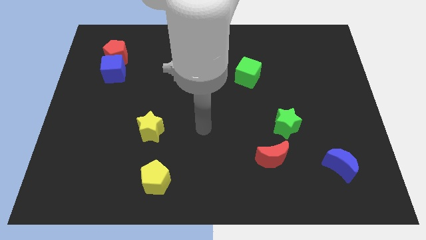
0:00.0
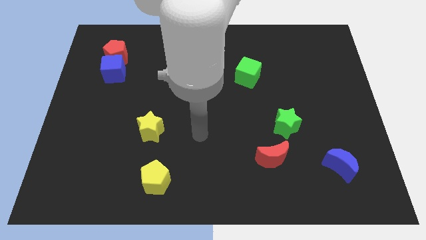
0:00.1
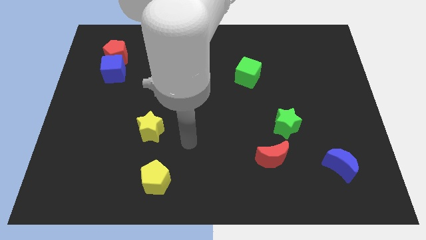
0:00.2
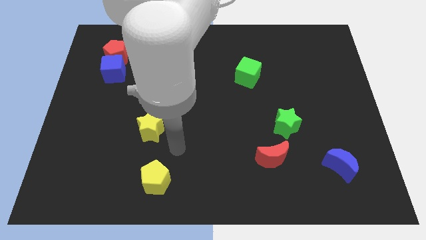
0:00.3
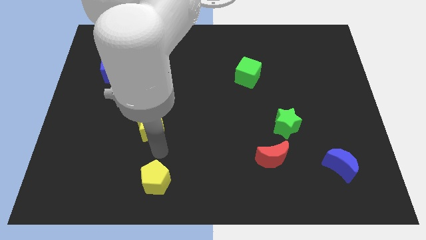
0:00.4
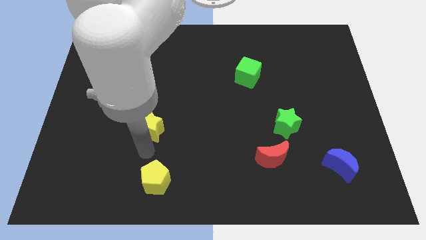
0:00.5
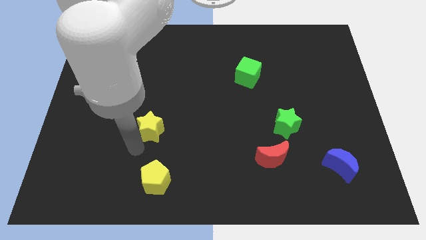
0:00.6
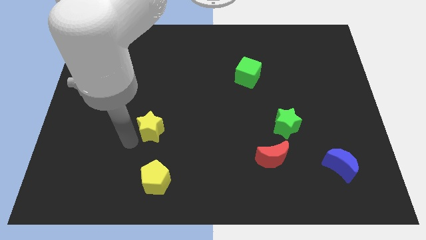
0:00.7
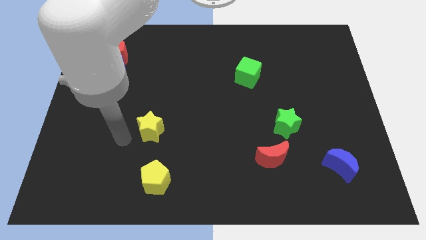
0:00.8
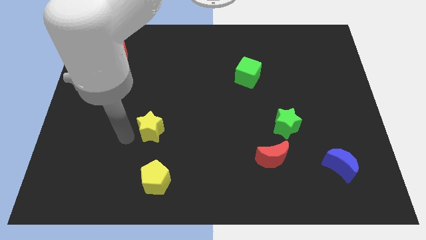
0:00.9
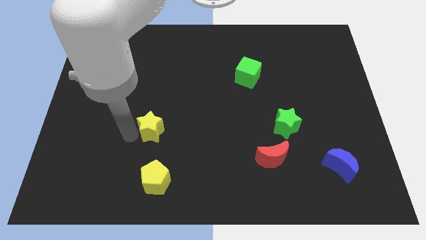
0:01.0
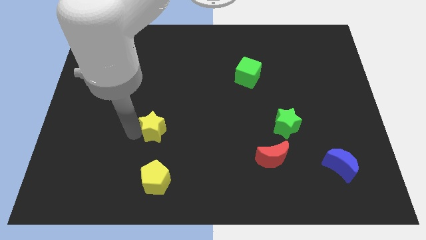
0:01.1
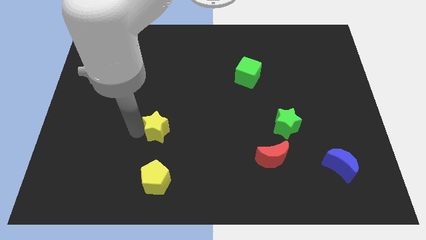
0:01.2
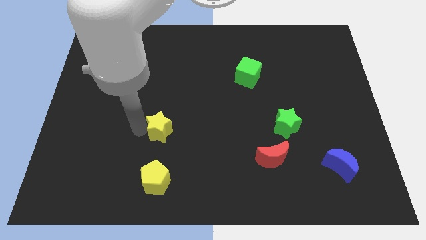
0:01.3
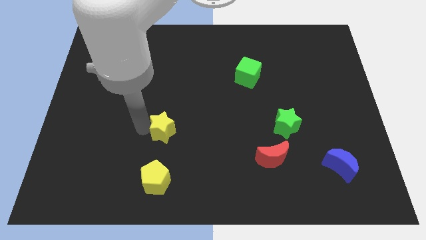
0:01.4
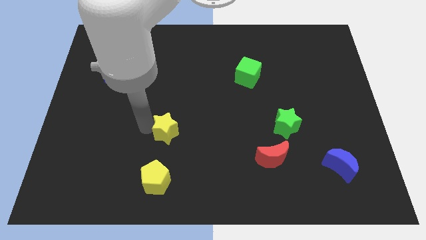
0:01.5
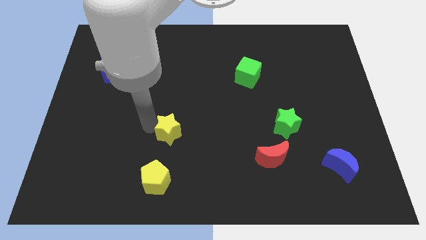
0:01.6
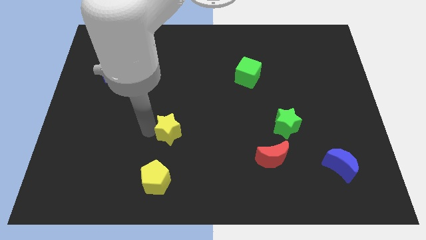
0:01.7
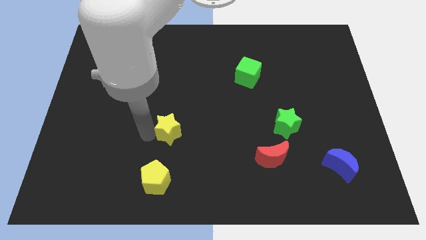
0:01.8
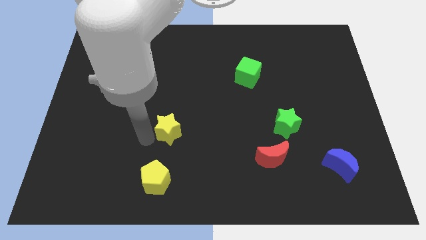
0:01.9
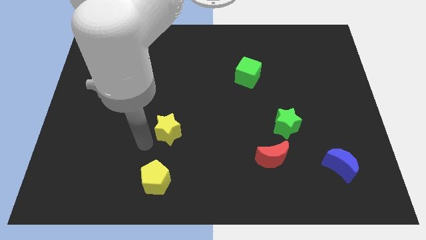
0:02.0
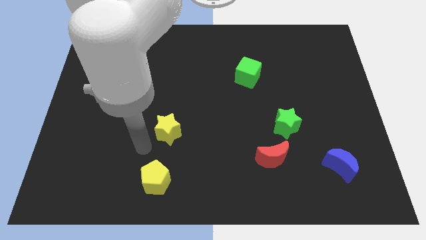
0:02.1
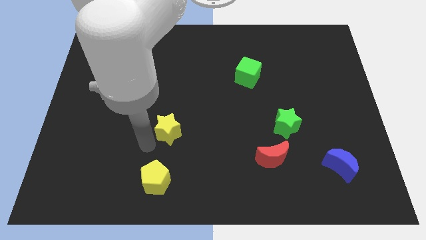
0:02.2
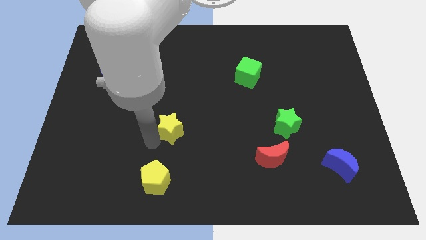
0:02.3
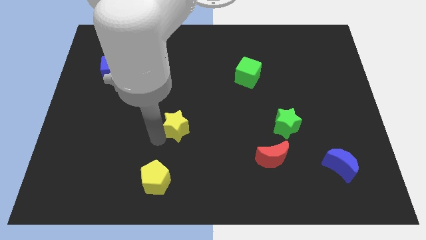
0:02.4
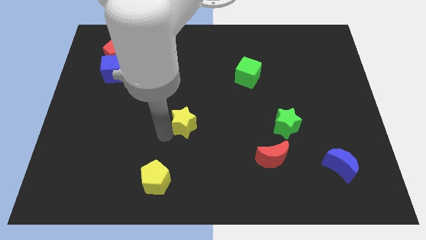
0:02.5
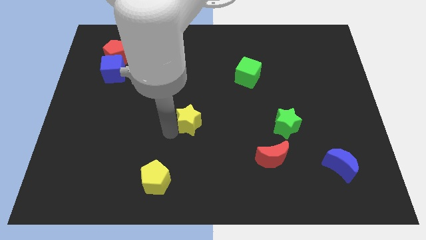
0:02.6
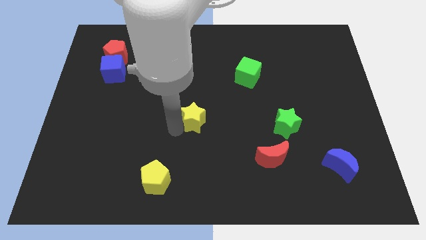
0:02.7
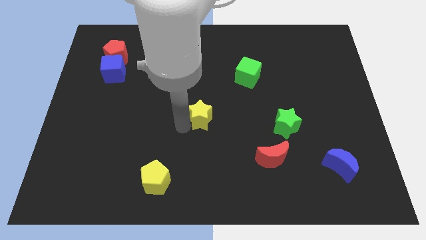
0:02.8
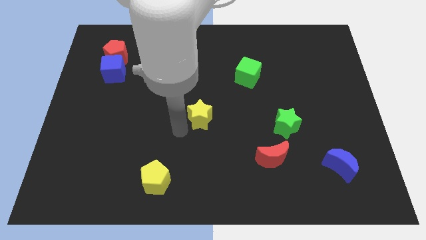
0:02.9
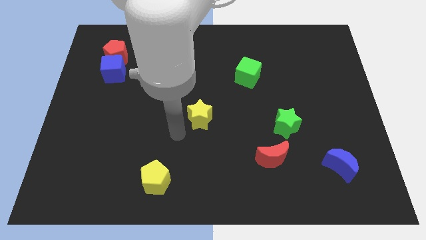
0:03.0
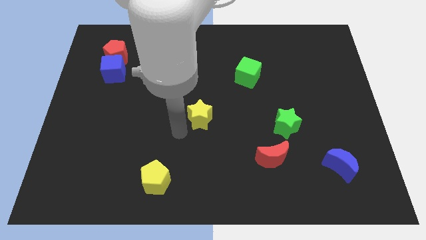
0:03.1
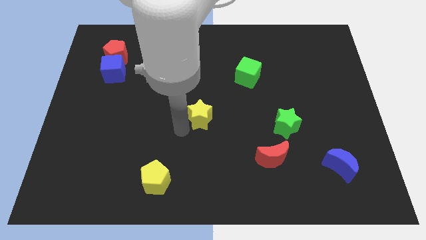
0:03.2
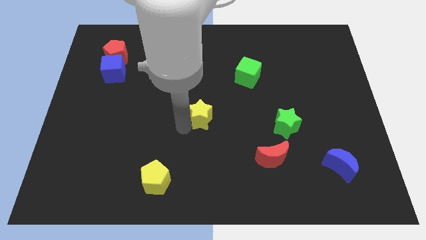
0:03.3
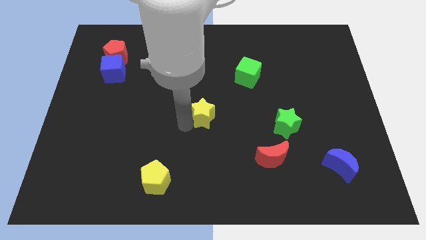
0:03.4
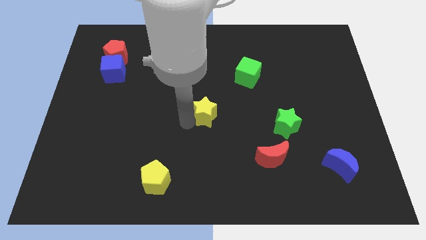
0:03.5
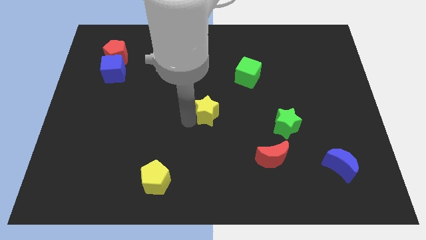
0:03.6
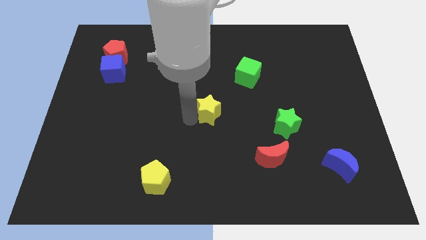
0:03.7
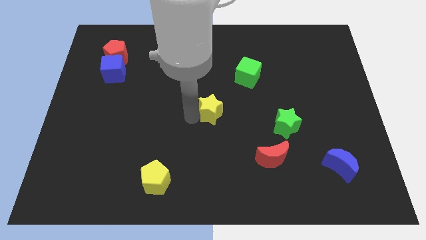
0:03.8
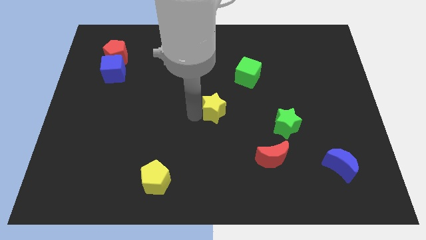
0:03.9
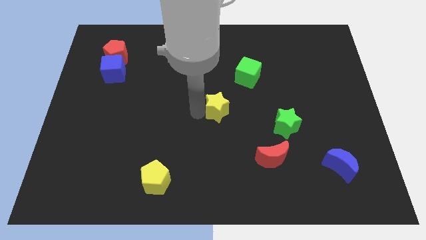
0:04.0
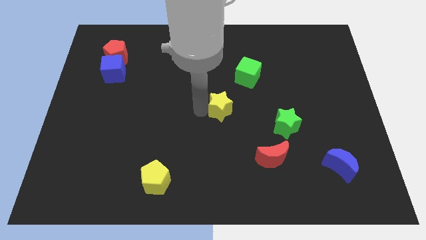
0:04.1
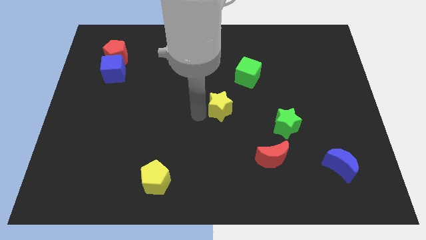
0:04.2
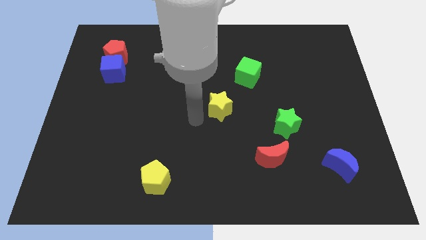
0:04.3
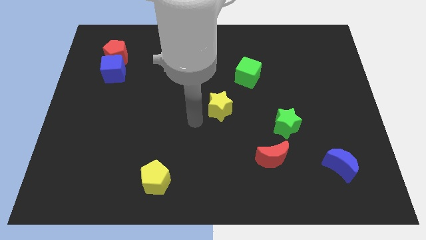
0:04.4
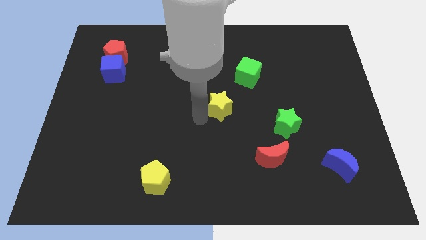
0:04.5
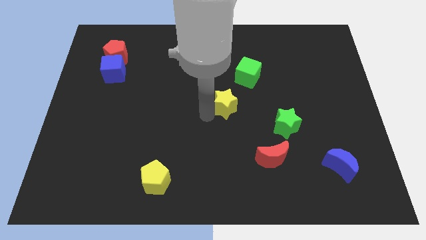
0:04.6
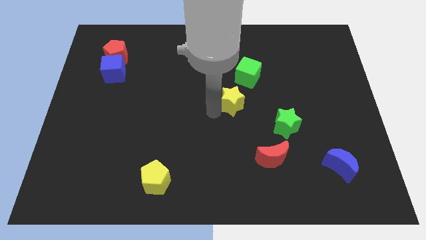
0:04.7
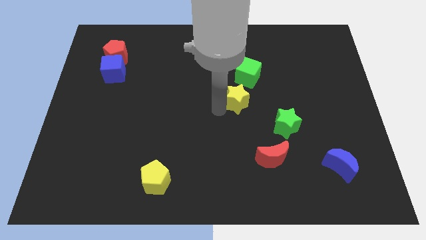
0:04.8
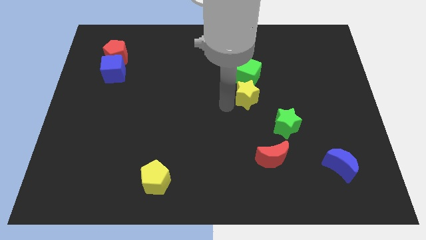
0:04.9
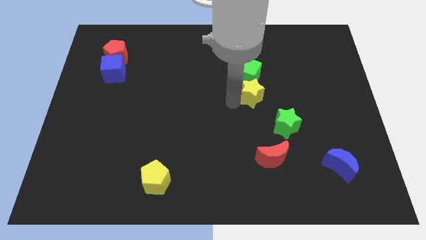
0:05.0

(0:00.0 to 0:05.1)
slide the yellow star to the bottom right of the green cube

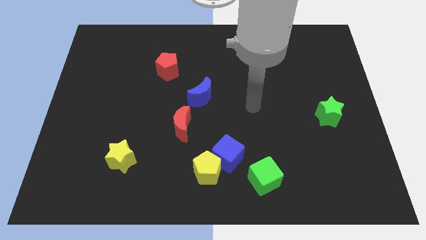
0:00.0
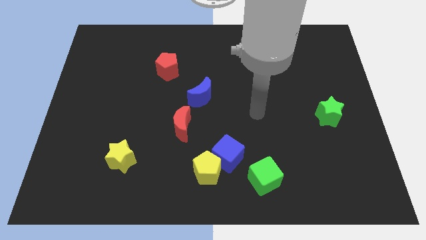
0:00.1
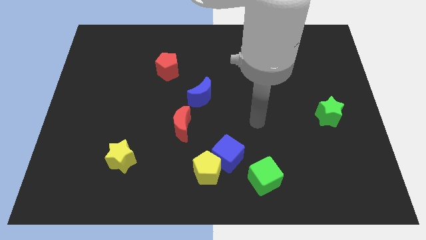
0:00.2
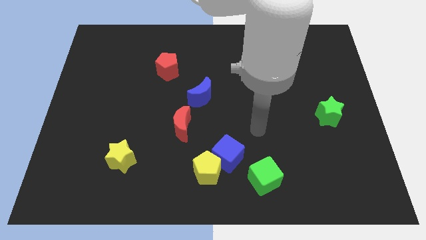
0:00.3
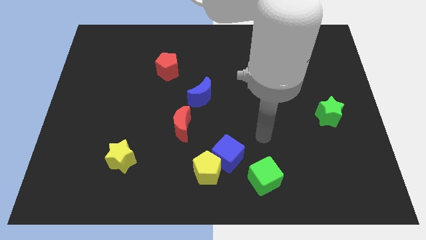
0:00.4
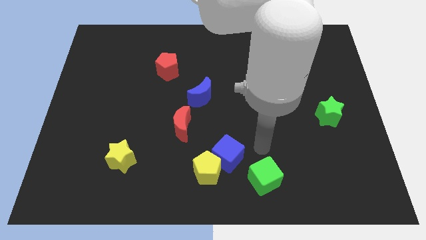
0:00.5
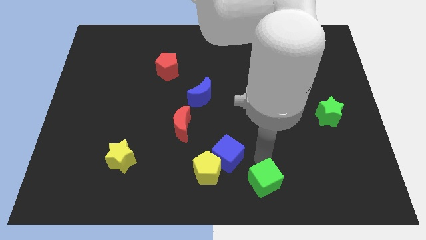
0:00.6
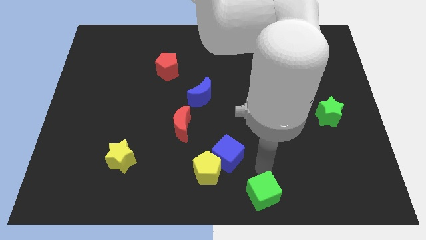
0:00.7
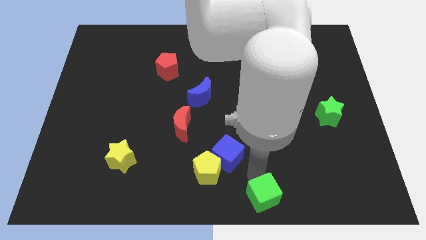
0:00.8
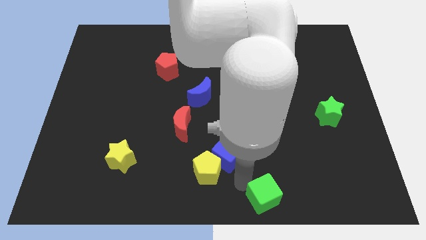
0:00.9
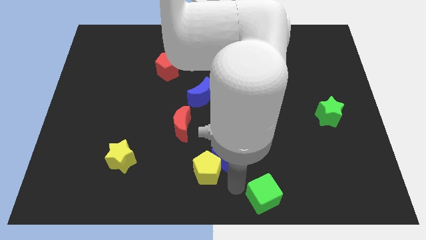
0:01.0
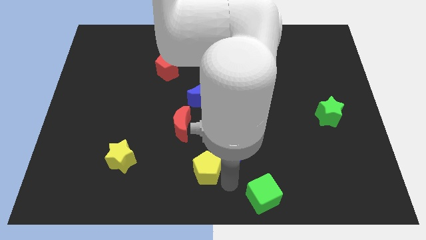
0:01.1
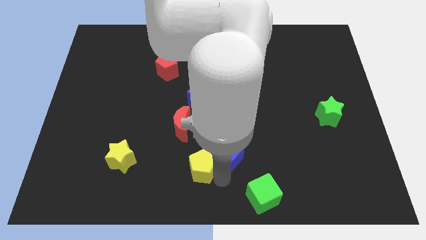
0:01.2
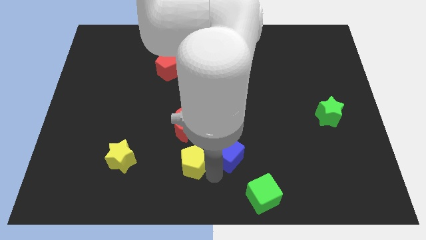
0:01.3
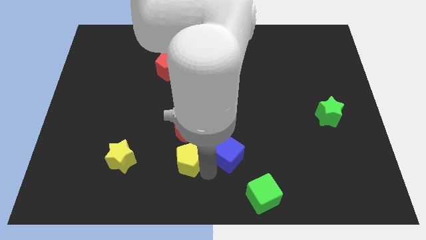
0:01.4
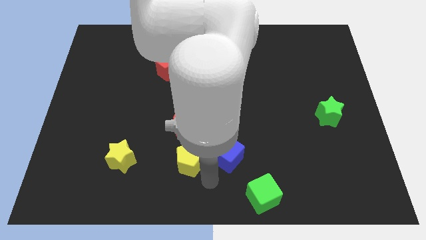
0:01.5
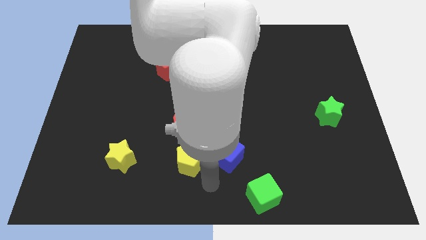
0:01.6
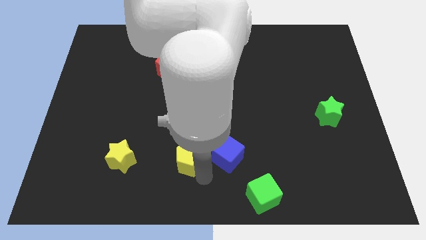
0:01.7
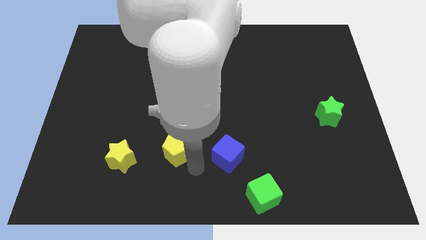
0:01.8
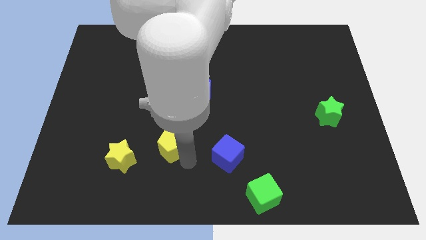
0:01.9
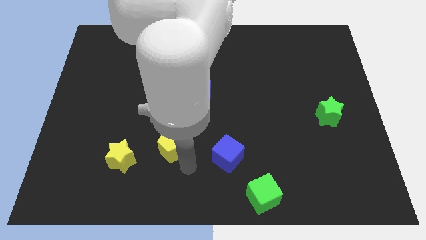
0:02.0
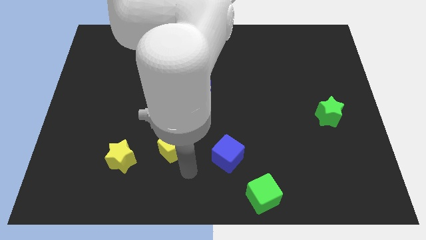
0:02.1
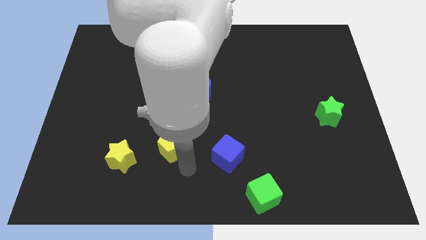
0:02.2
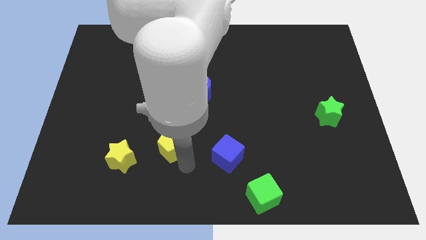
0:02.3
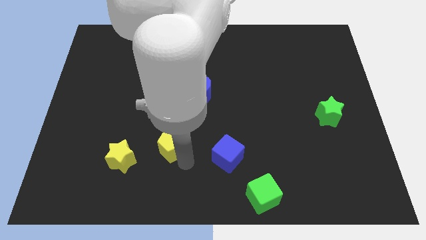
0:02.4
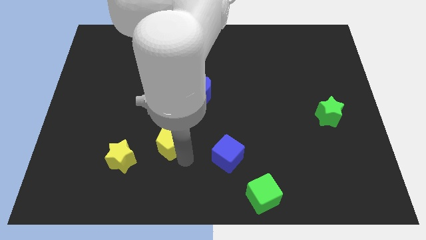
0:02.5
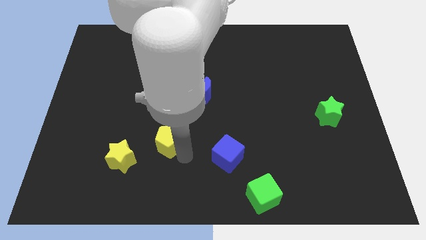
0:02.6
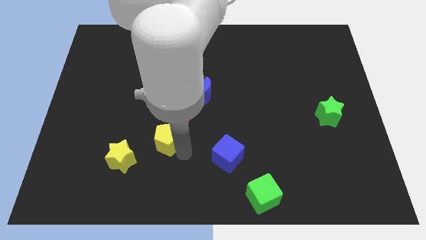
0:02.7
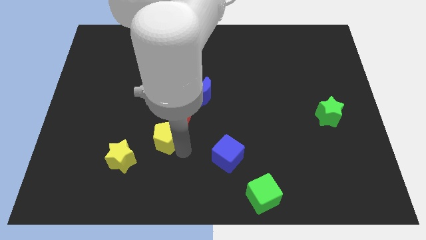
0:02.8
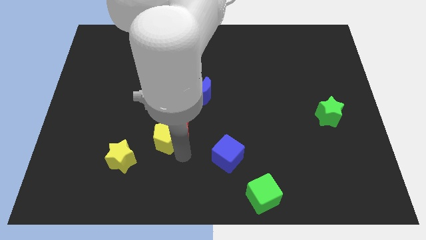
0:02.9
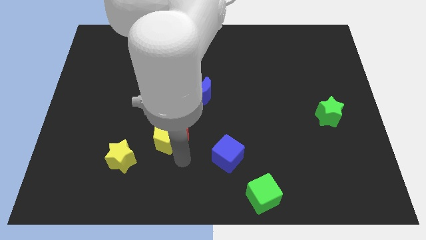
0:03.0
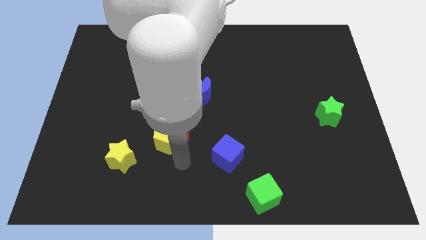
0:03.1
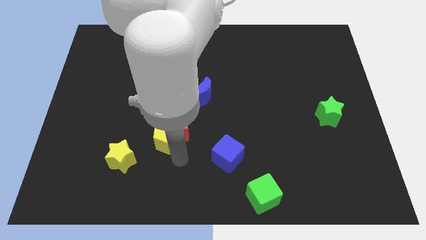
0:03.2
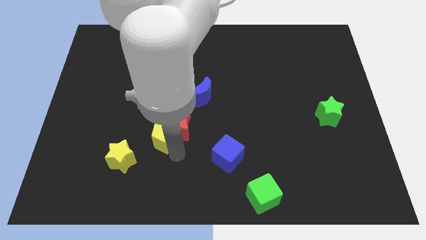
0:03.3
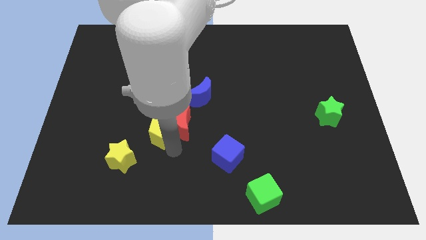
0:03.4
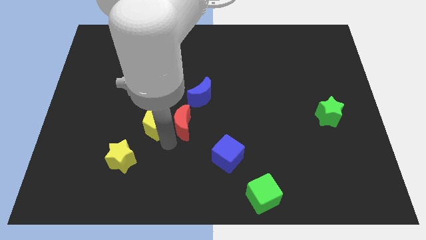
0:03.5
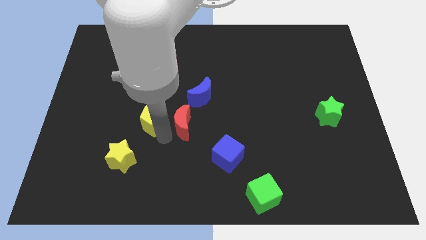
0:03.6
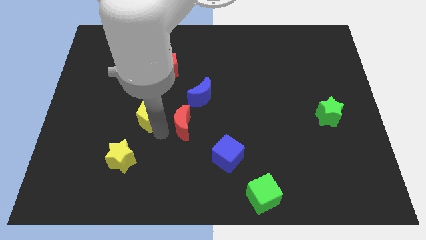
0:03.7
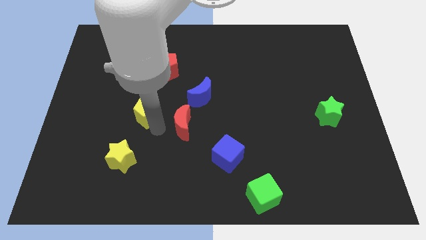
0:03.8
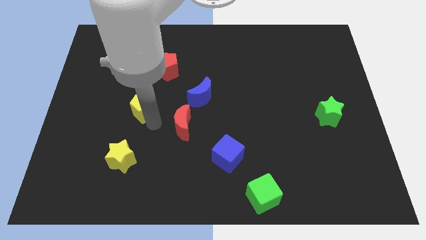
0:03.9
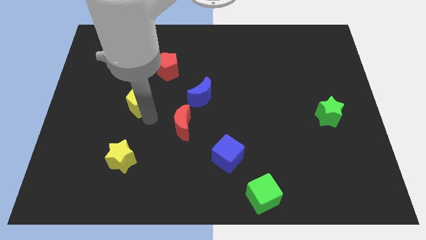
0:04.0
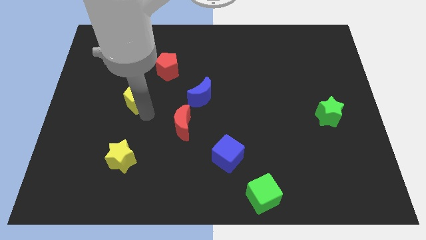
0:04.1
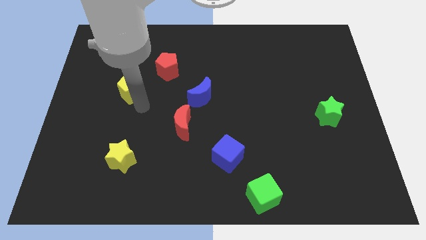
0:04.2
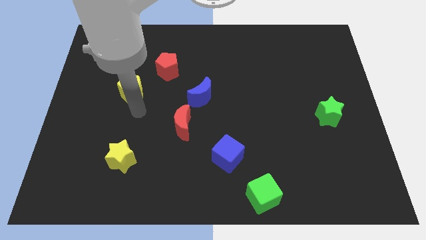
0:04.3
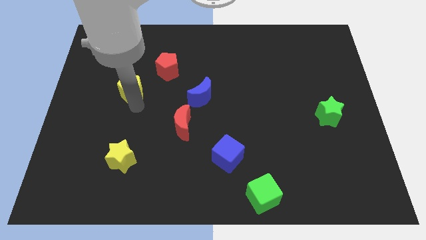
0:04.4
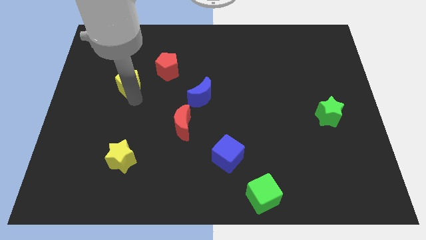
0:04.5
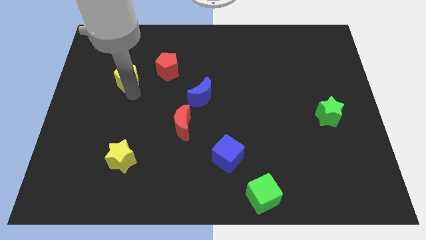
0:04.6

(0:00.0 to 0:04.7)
put the yellow pentagon to the left side of the red pentagon
